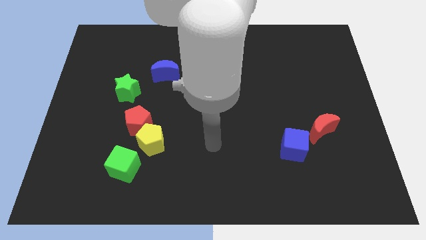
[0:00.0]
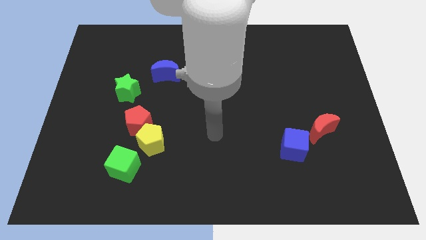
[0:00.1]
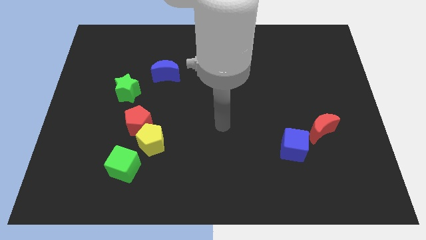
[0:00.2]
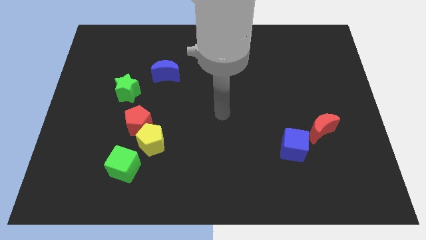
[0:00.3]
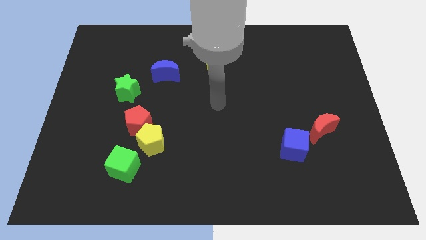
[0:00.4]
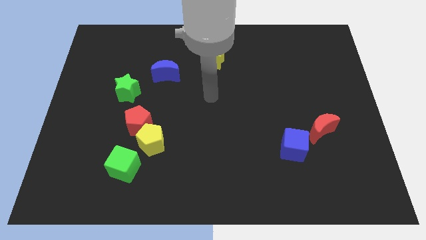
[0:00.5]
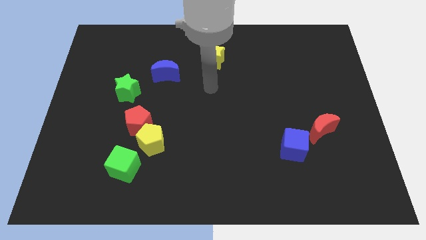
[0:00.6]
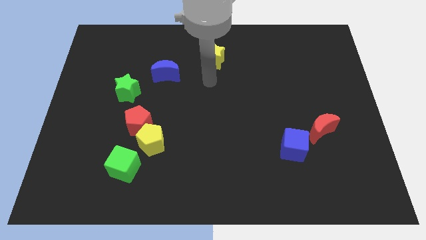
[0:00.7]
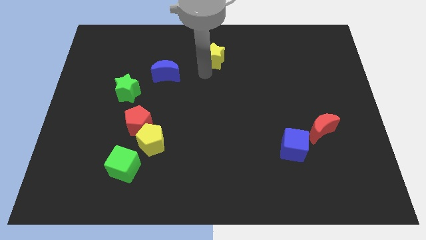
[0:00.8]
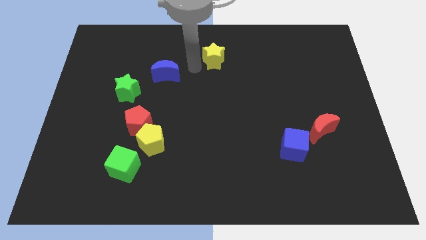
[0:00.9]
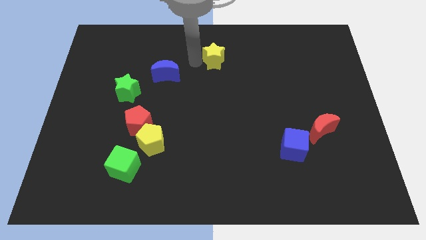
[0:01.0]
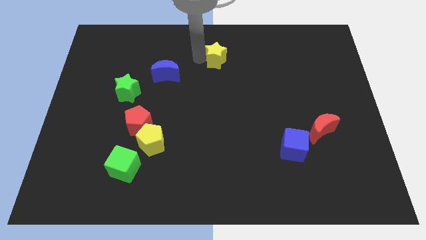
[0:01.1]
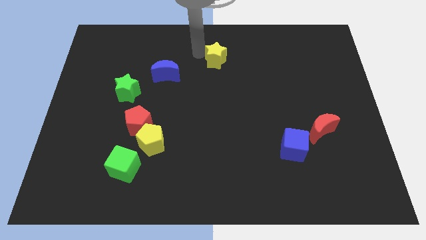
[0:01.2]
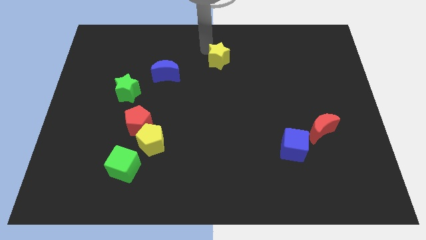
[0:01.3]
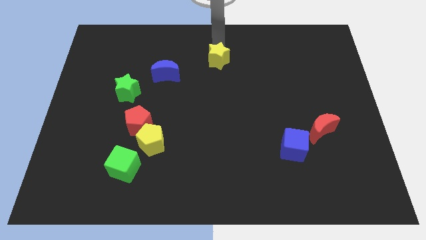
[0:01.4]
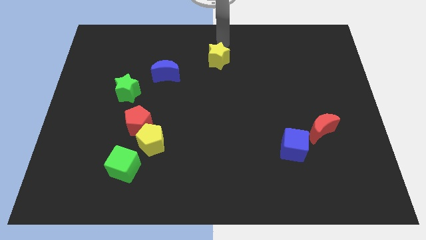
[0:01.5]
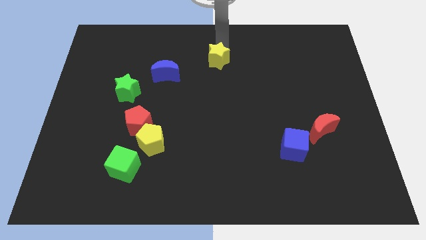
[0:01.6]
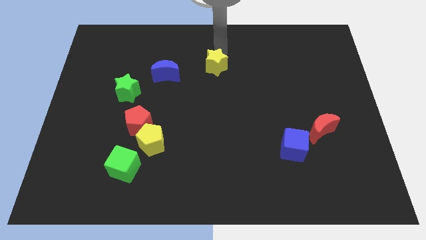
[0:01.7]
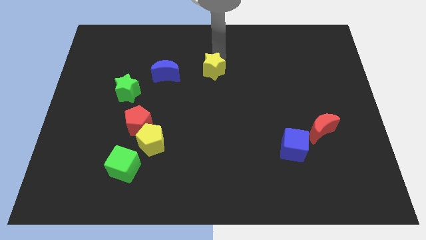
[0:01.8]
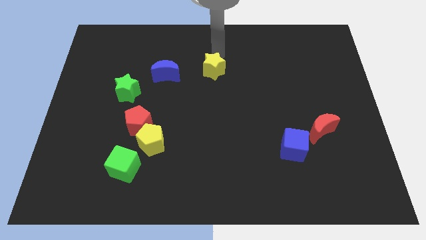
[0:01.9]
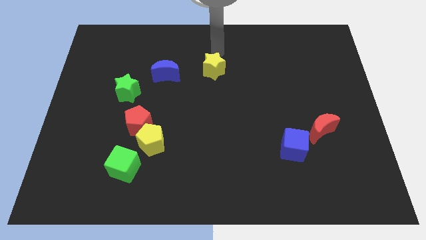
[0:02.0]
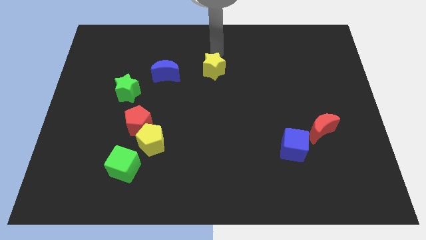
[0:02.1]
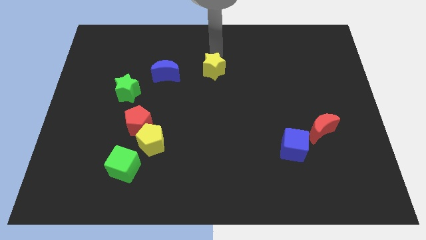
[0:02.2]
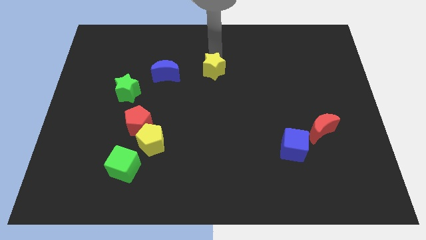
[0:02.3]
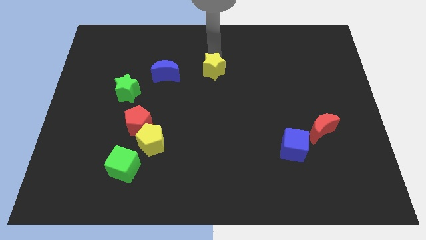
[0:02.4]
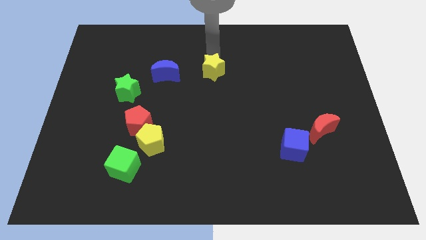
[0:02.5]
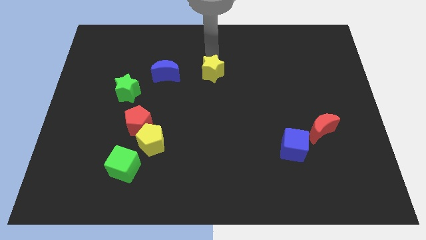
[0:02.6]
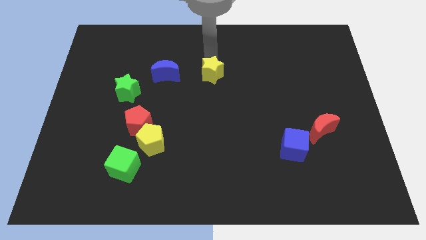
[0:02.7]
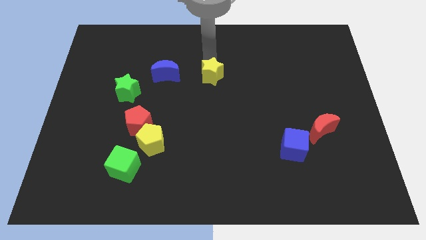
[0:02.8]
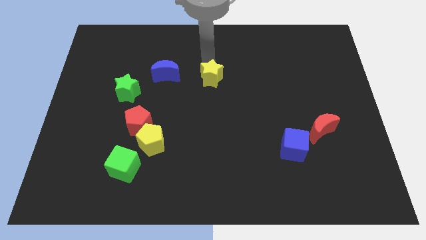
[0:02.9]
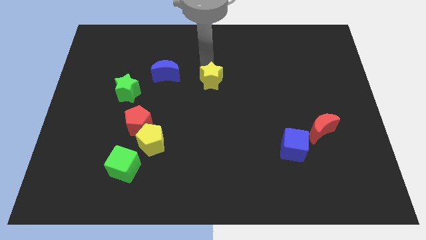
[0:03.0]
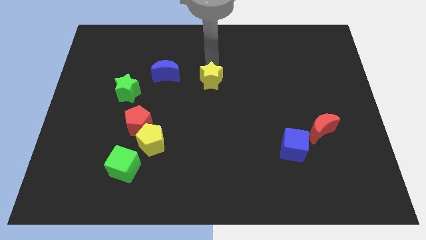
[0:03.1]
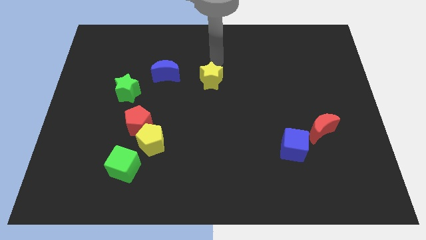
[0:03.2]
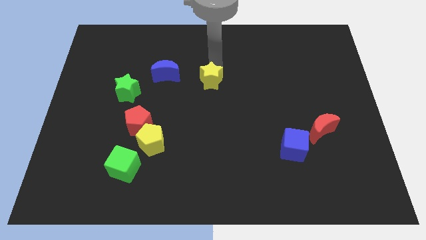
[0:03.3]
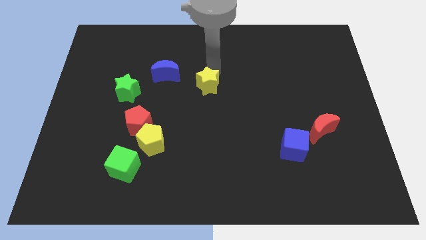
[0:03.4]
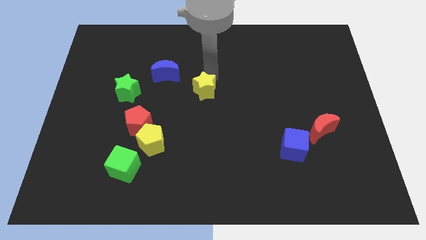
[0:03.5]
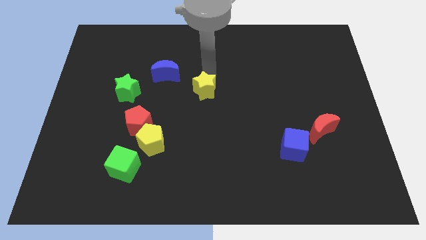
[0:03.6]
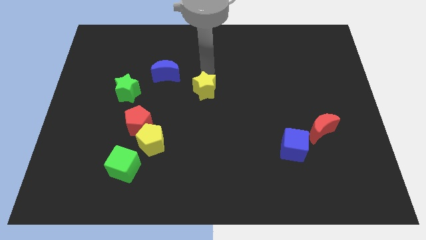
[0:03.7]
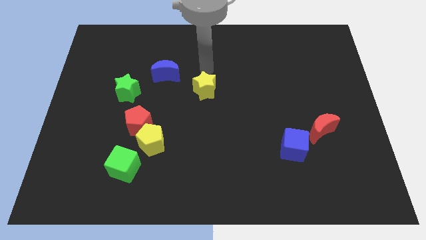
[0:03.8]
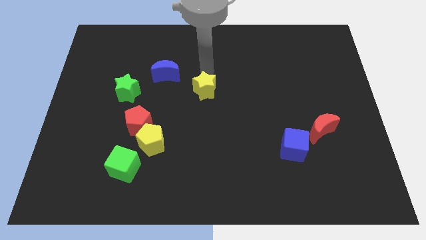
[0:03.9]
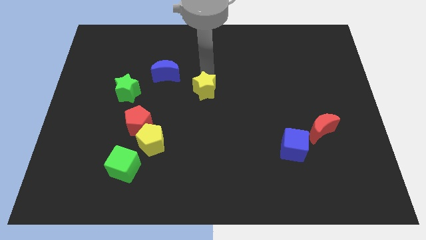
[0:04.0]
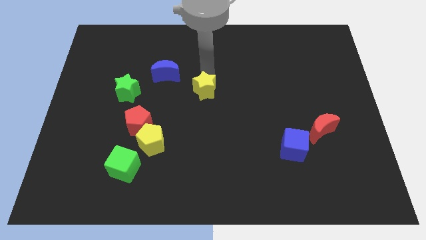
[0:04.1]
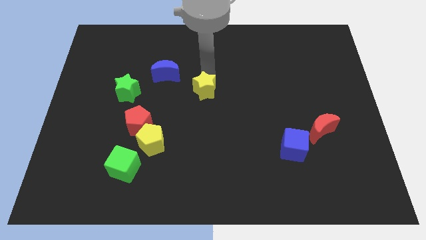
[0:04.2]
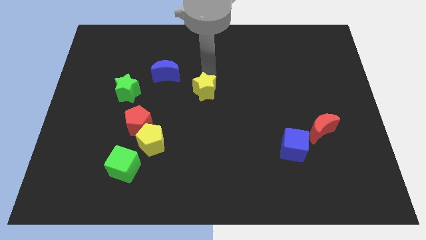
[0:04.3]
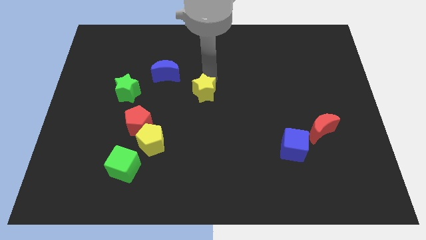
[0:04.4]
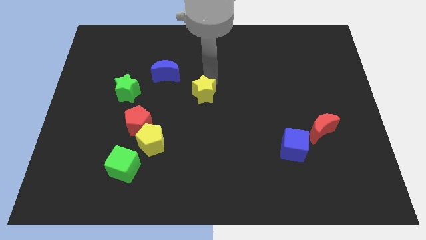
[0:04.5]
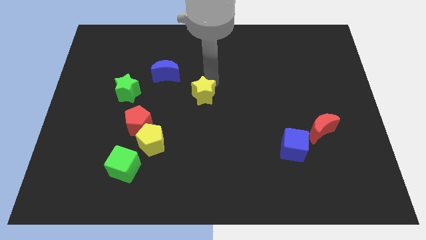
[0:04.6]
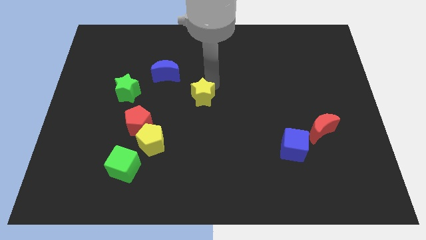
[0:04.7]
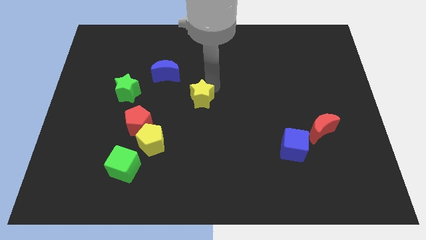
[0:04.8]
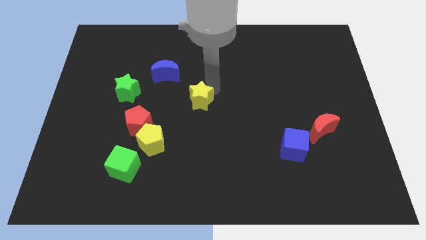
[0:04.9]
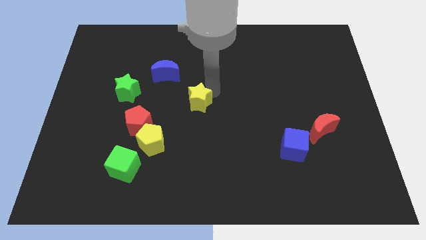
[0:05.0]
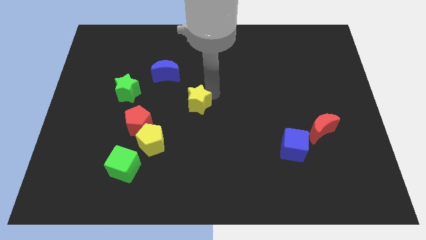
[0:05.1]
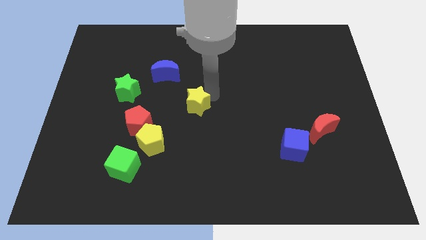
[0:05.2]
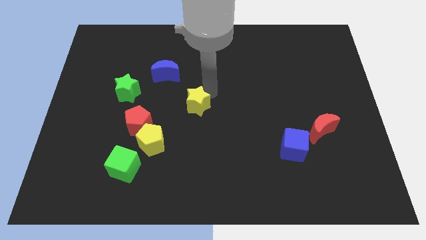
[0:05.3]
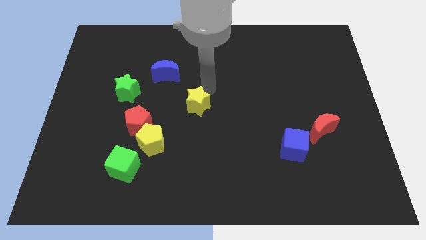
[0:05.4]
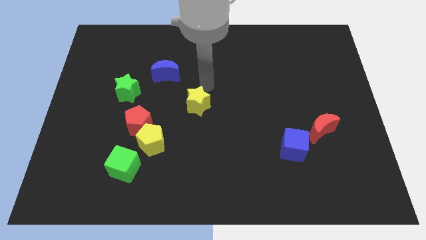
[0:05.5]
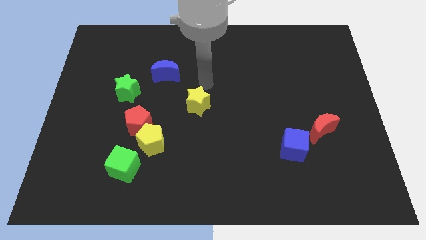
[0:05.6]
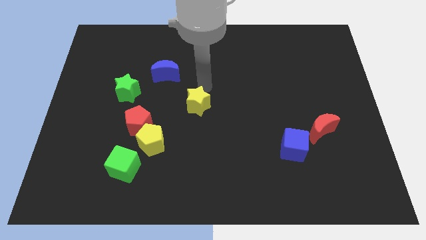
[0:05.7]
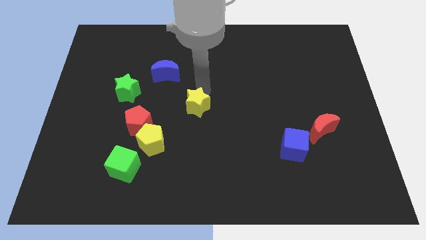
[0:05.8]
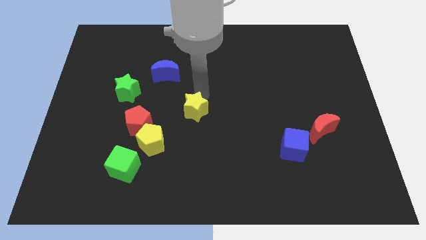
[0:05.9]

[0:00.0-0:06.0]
move the yellow star just right of the red pentagon

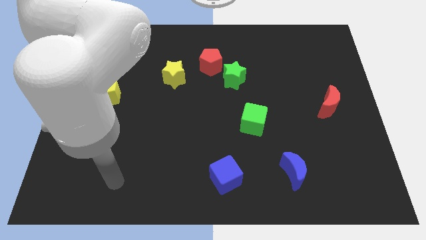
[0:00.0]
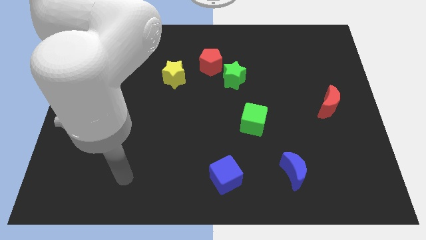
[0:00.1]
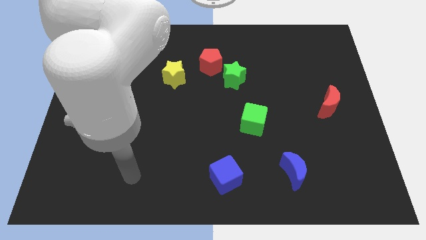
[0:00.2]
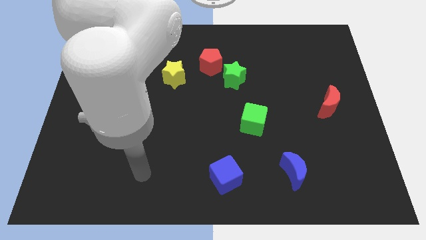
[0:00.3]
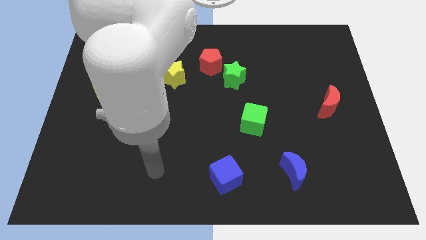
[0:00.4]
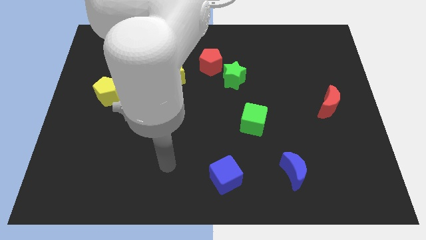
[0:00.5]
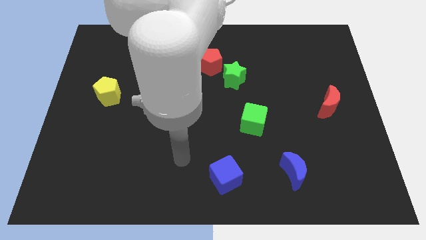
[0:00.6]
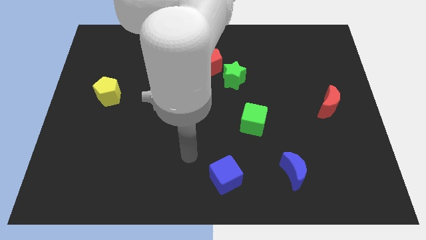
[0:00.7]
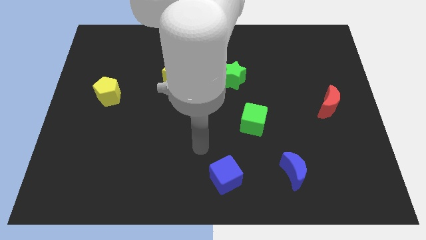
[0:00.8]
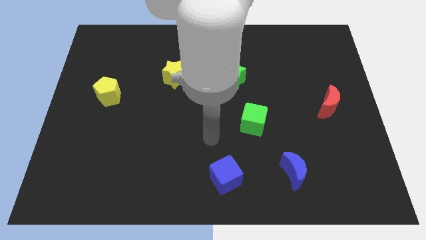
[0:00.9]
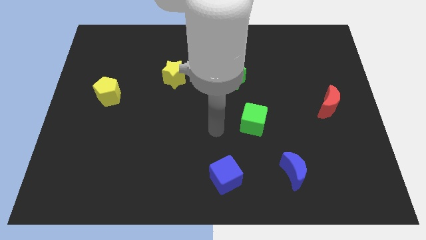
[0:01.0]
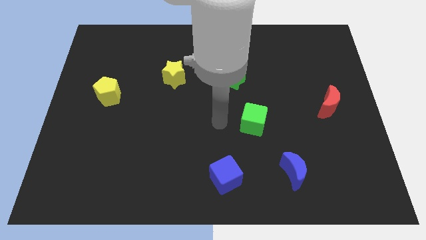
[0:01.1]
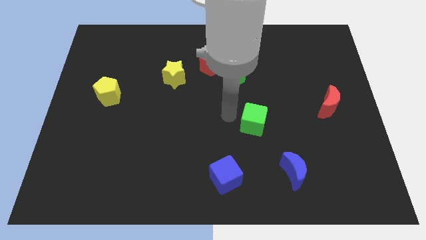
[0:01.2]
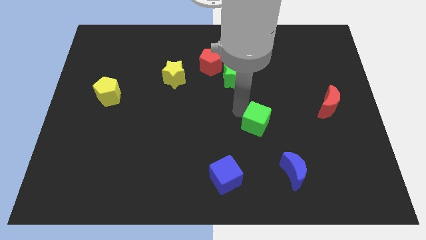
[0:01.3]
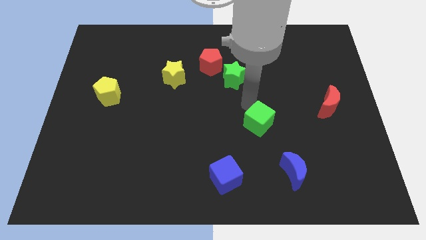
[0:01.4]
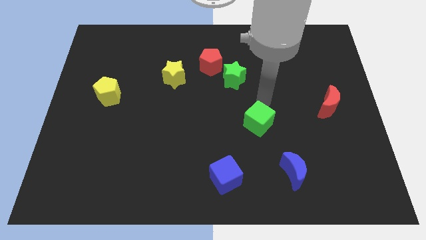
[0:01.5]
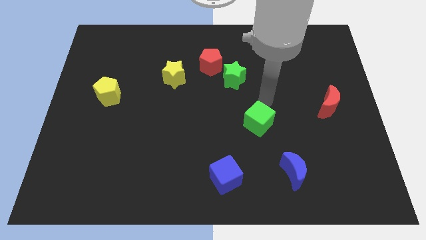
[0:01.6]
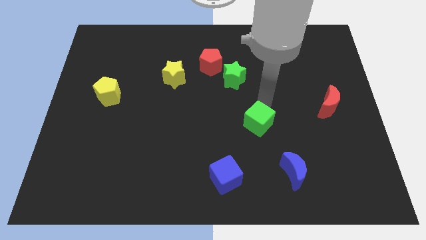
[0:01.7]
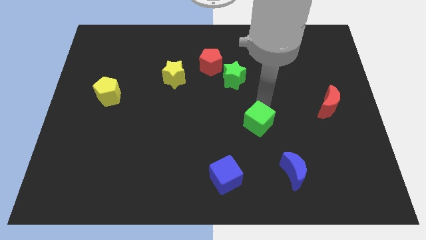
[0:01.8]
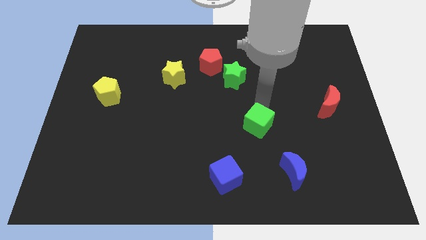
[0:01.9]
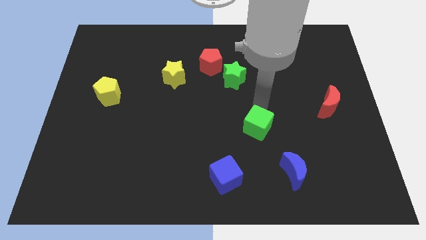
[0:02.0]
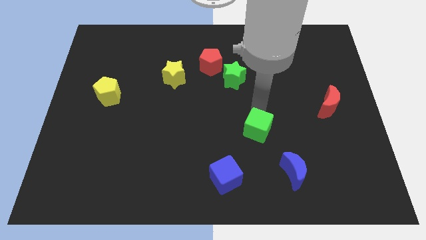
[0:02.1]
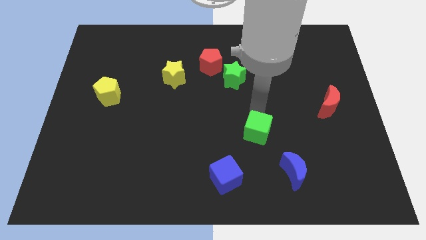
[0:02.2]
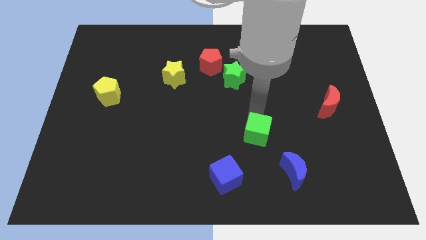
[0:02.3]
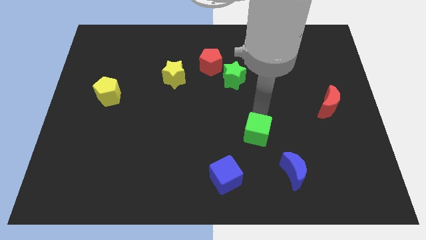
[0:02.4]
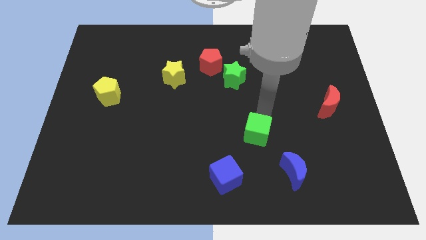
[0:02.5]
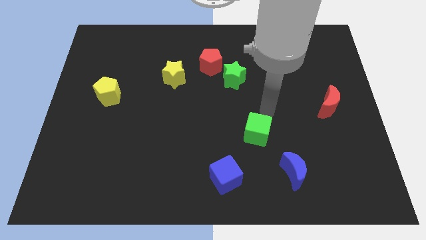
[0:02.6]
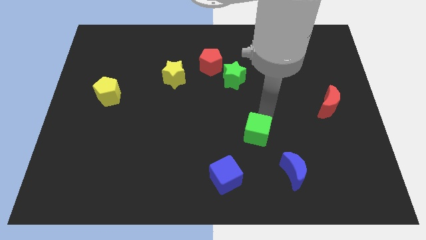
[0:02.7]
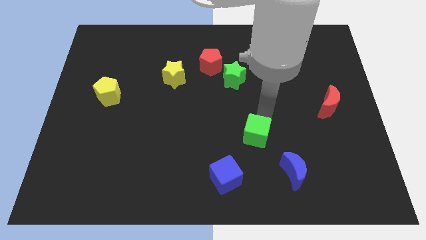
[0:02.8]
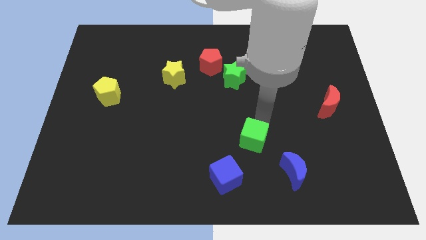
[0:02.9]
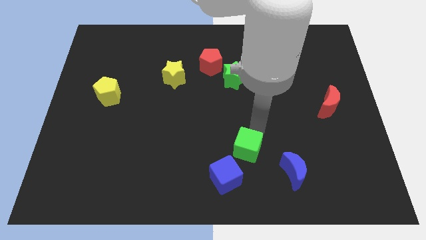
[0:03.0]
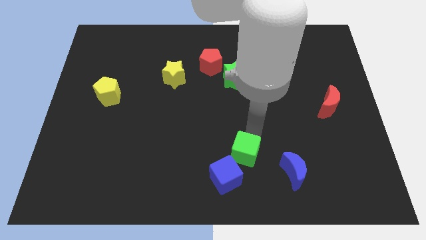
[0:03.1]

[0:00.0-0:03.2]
move the green cube left of the blue moon
